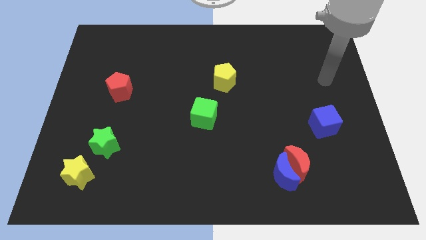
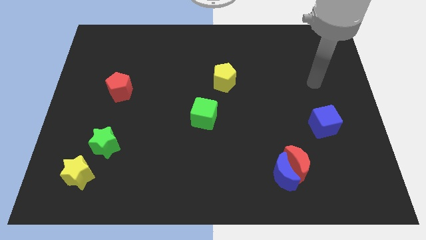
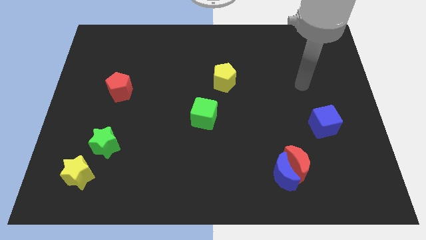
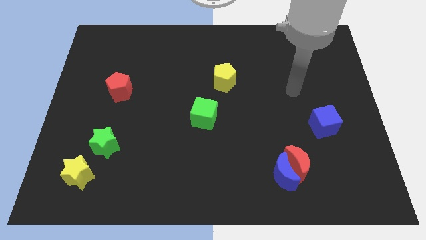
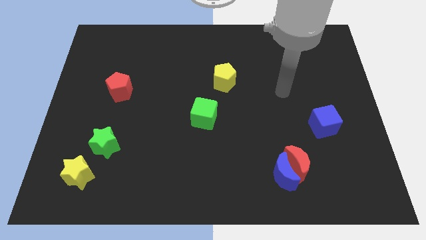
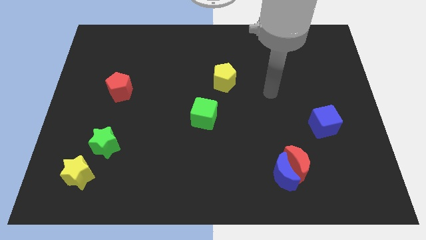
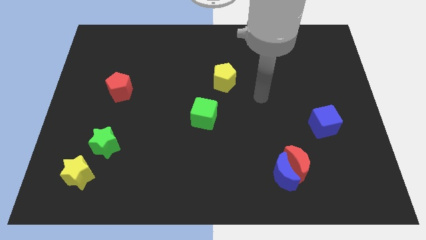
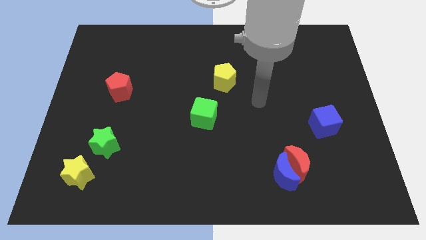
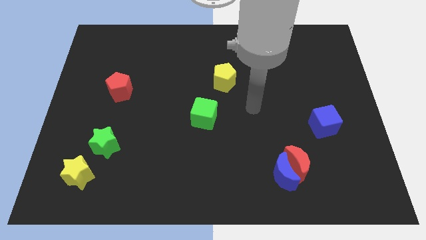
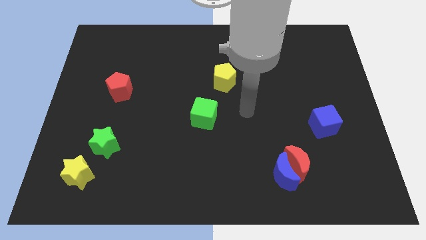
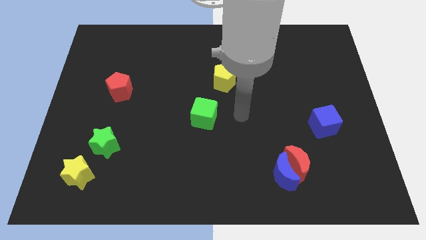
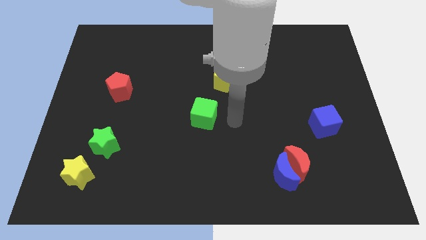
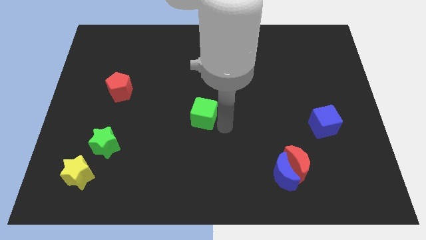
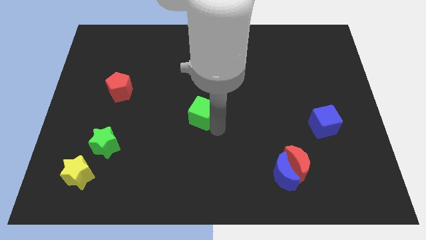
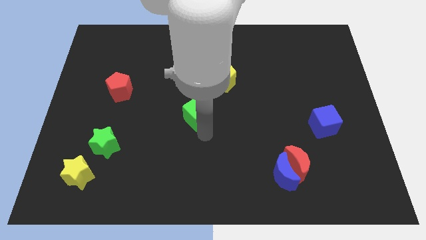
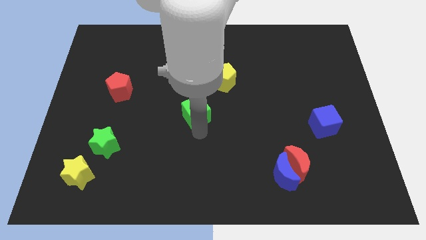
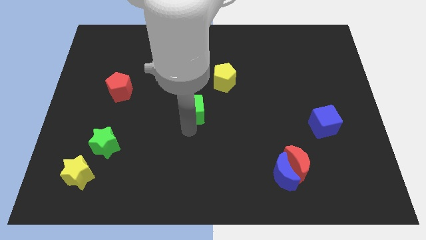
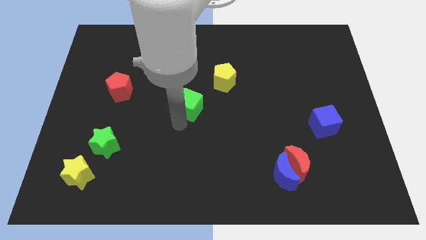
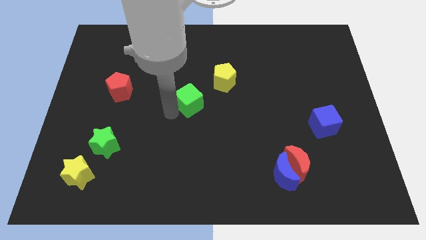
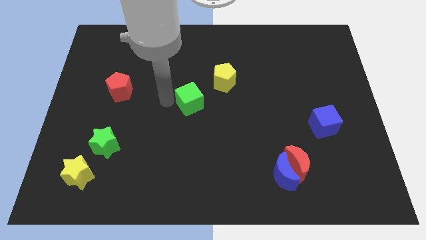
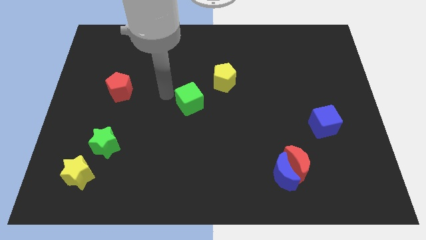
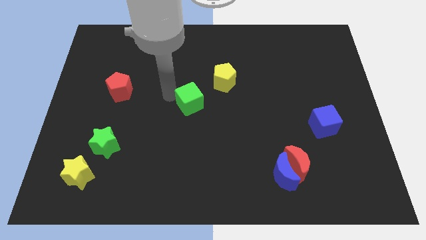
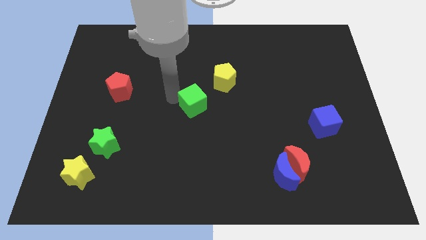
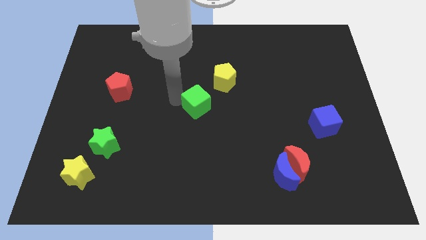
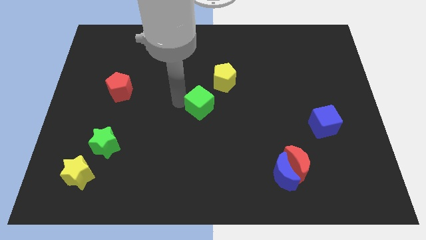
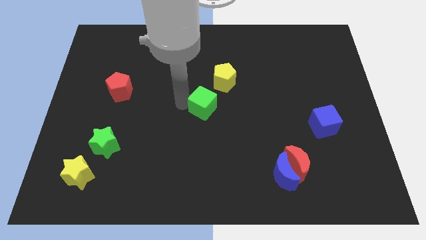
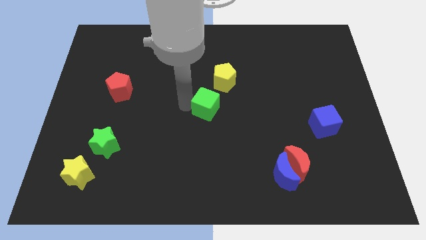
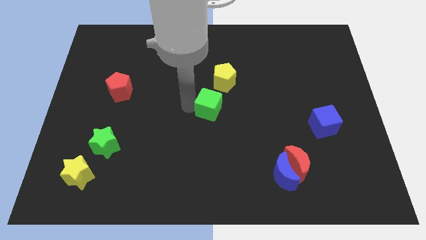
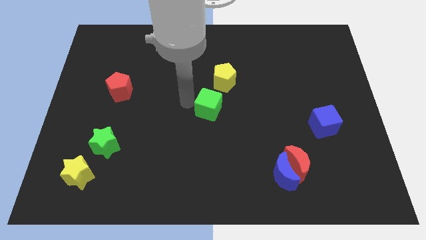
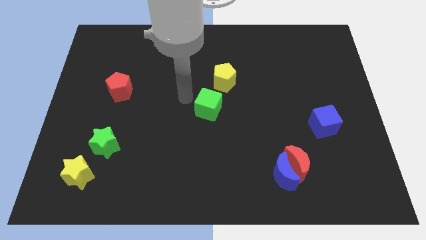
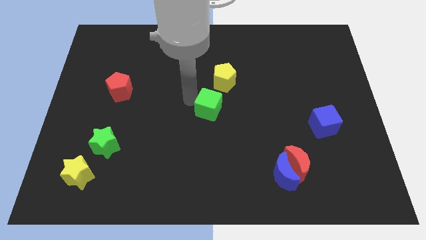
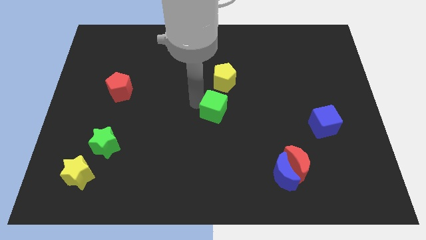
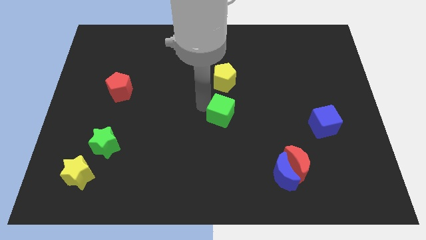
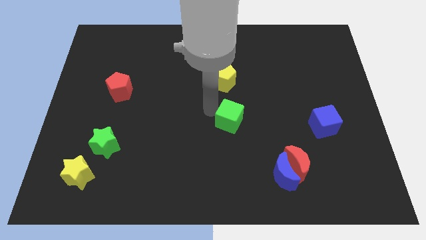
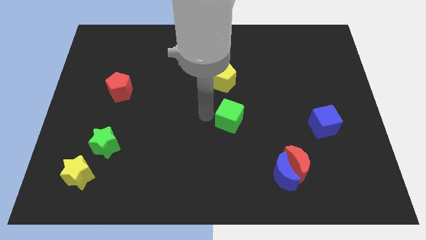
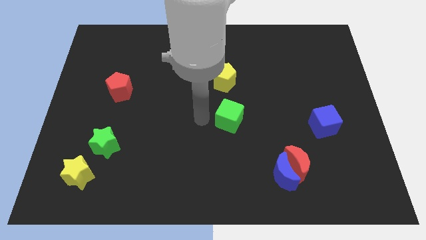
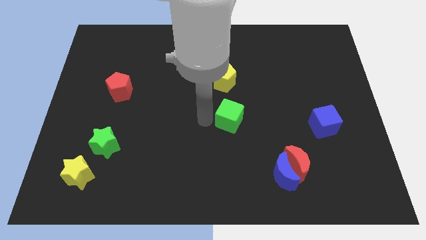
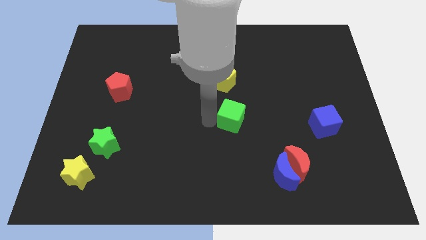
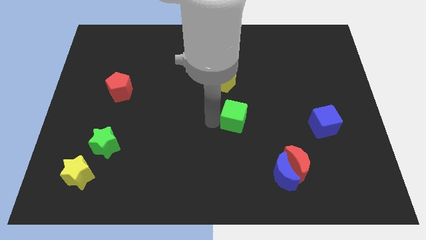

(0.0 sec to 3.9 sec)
slightly slide the green cube to the right

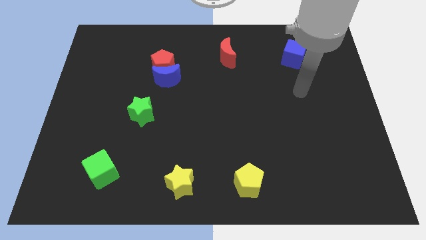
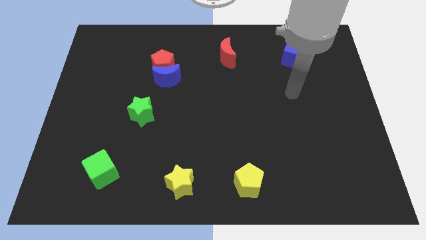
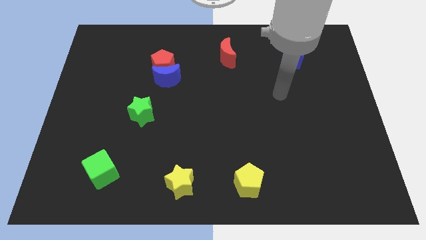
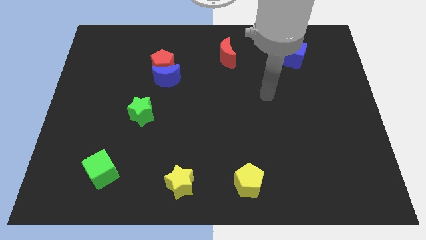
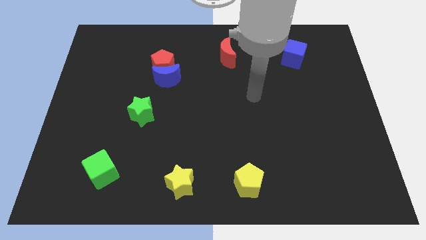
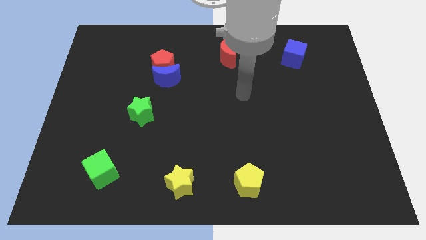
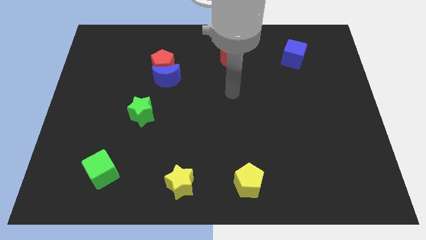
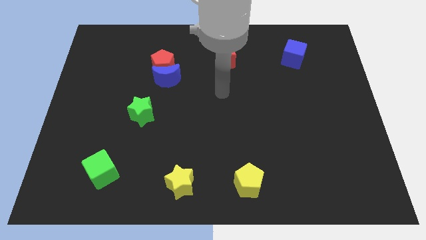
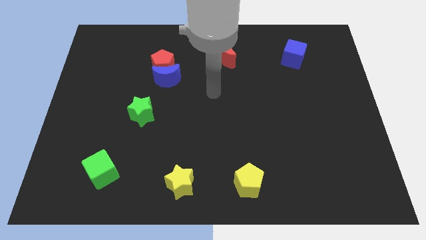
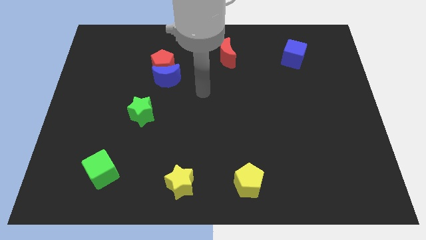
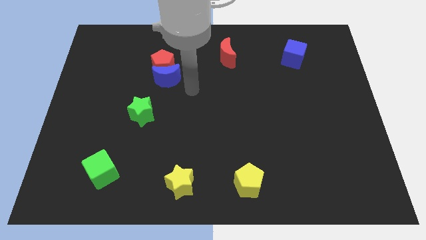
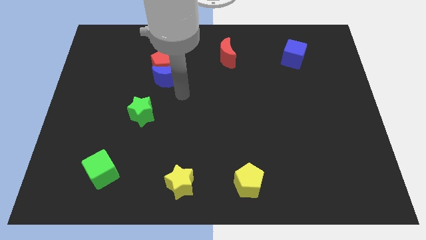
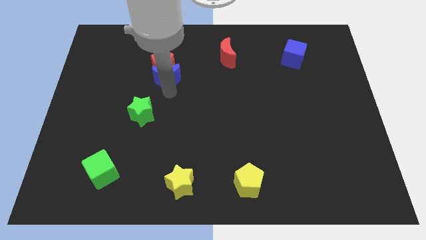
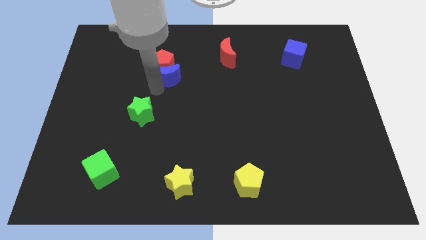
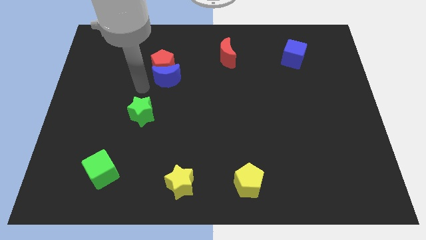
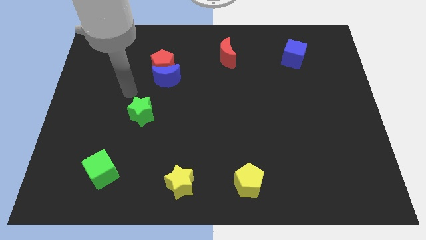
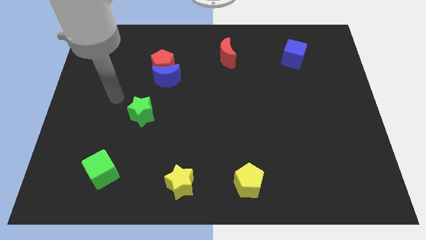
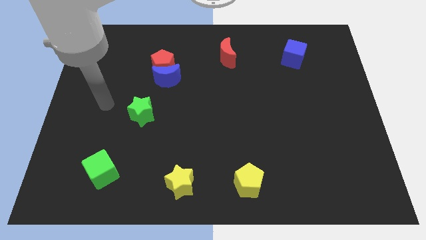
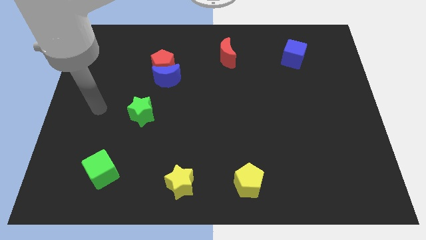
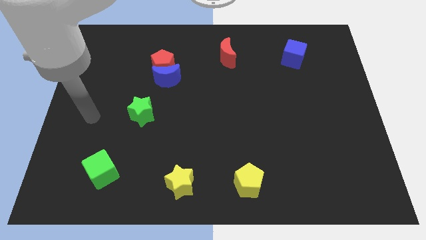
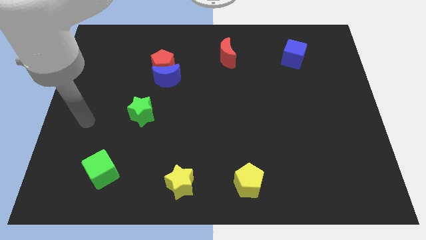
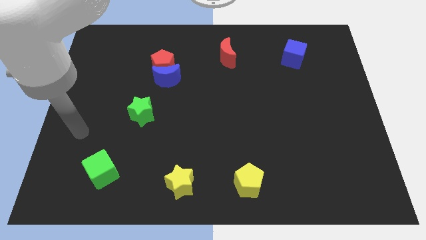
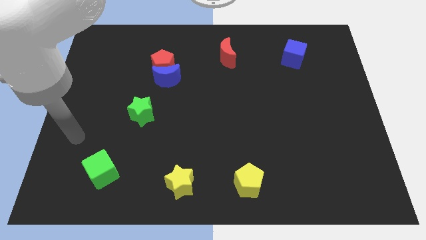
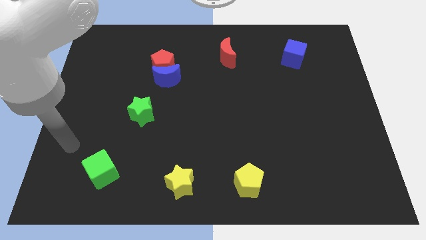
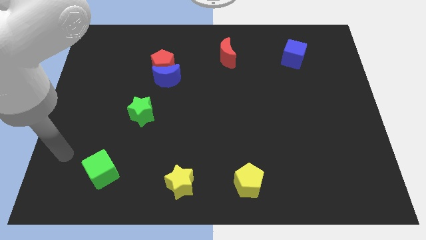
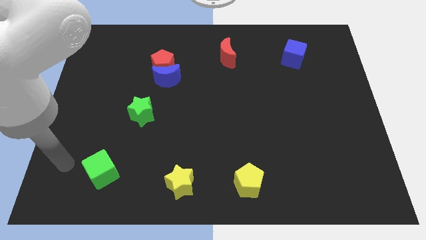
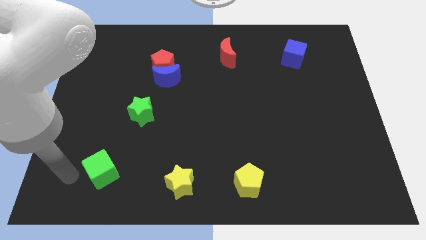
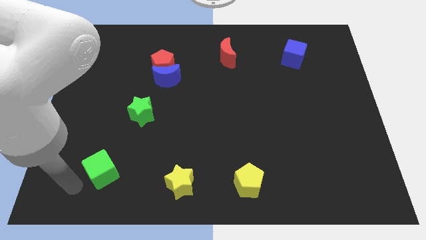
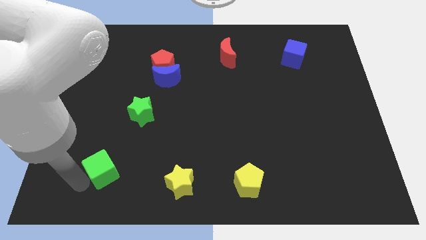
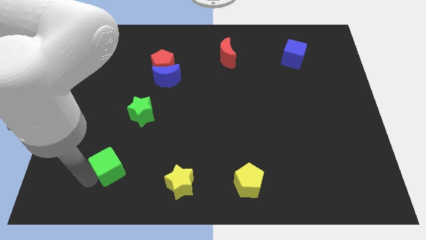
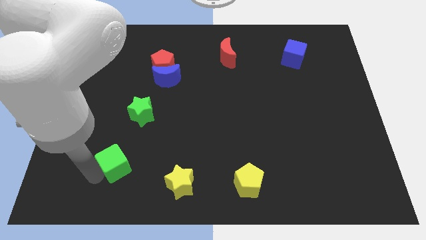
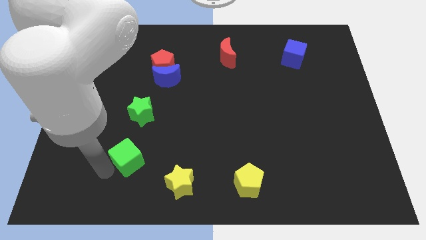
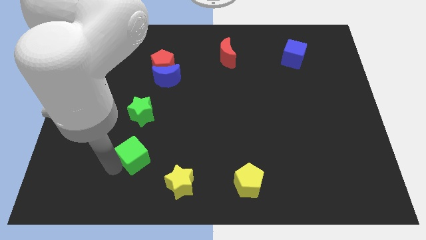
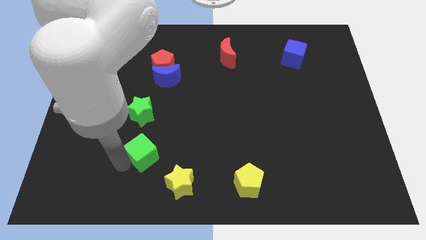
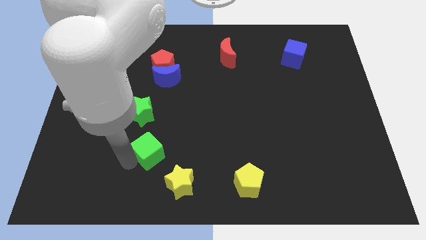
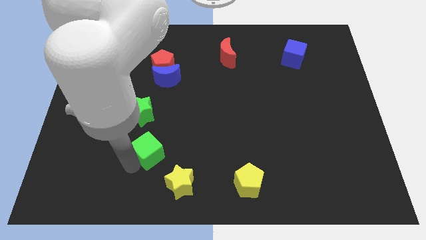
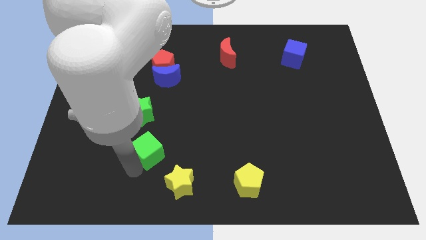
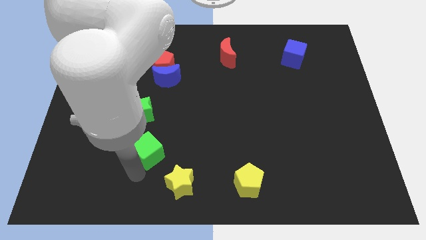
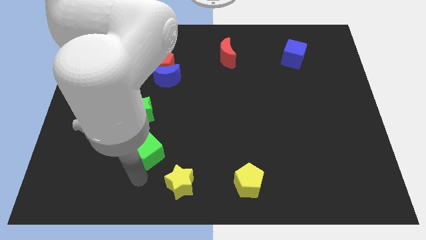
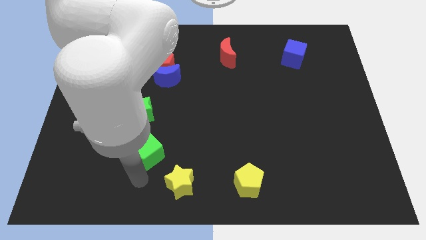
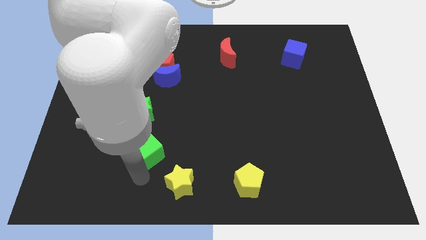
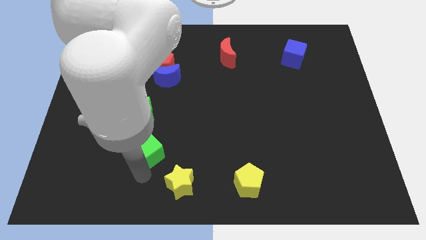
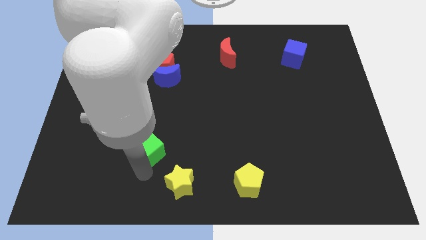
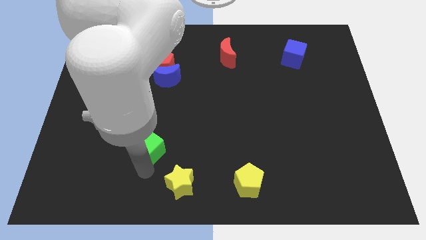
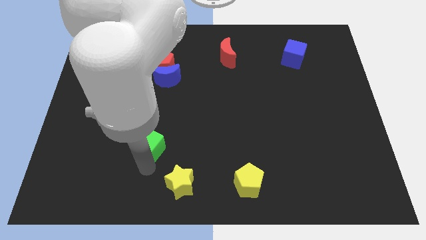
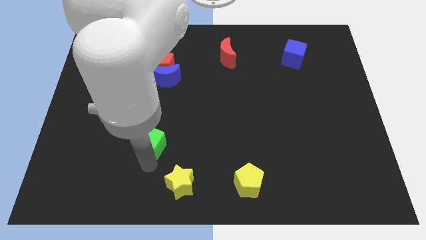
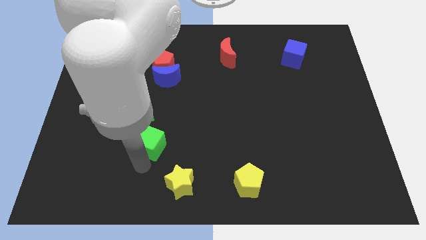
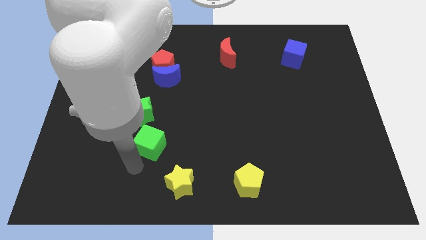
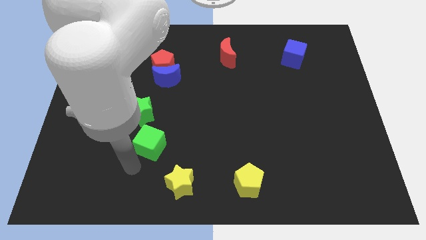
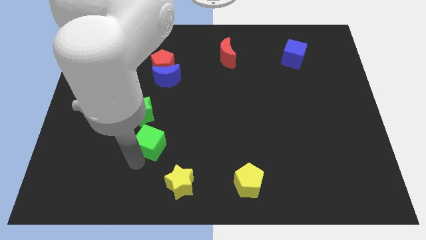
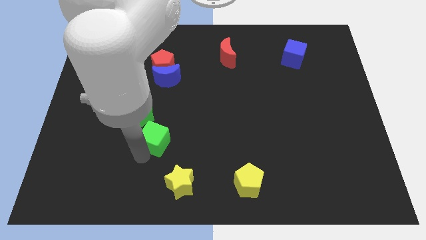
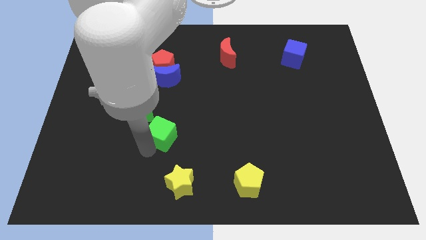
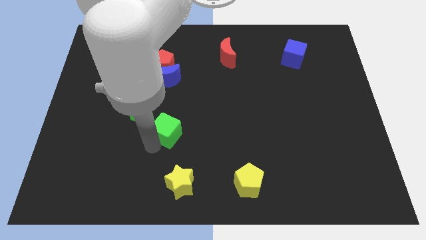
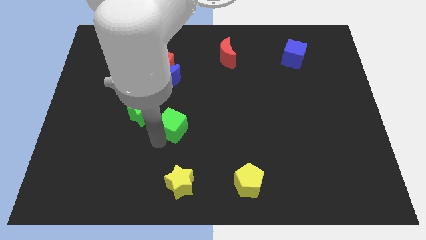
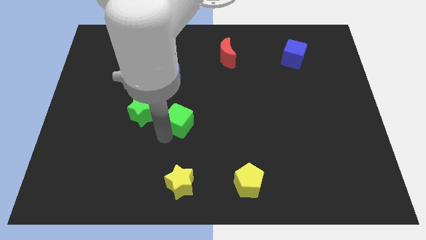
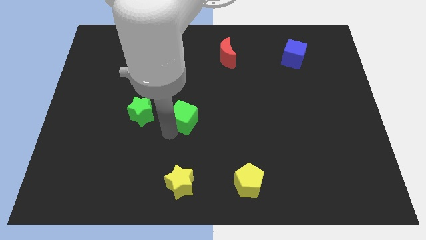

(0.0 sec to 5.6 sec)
slide the green cube upwards and right
